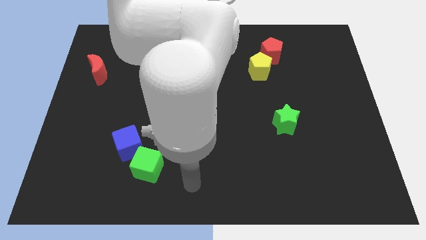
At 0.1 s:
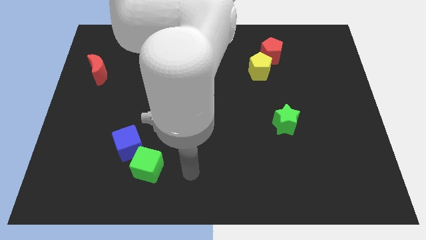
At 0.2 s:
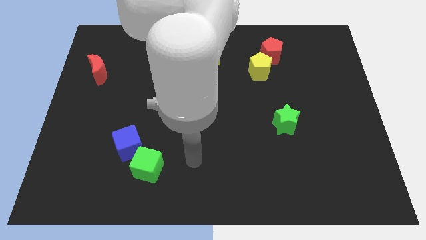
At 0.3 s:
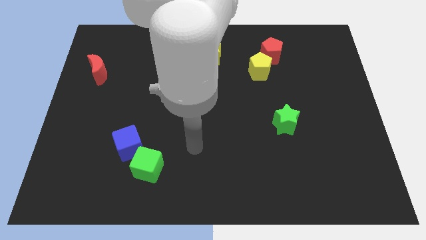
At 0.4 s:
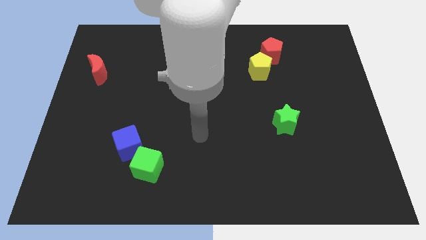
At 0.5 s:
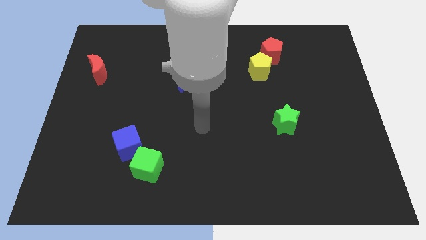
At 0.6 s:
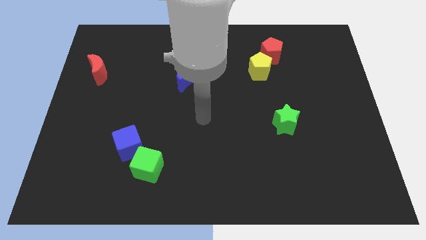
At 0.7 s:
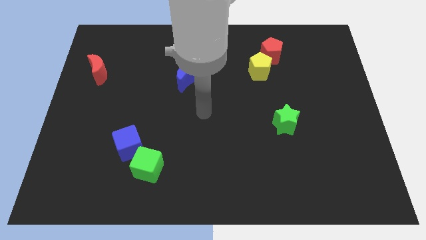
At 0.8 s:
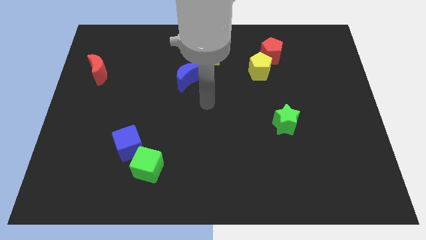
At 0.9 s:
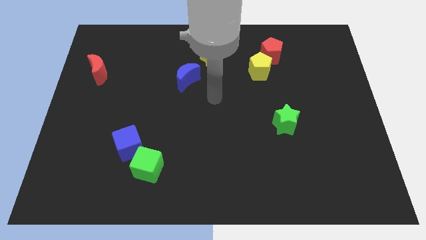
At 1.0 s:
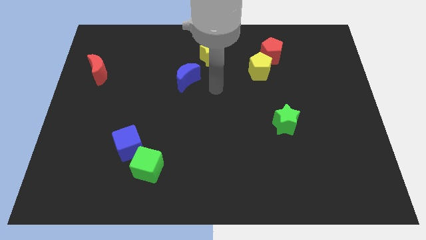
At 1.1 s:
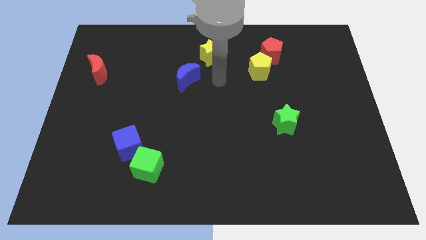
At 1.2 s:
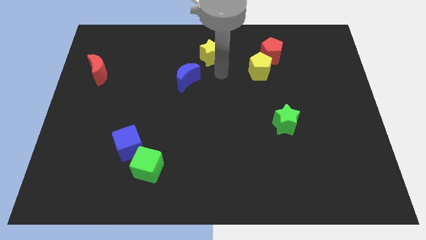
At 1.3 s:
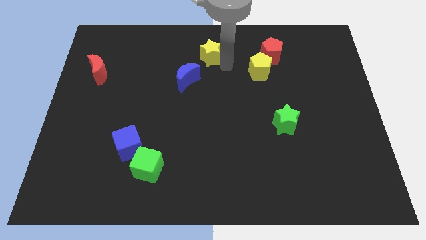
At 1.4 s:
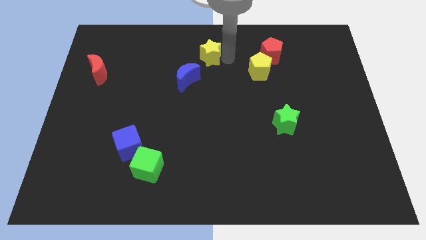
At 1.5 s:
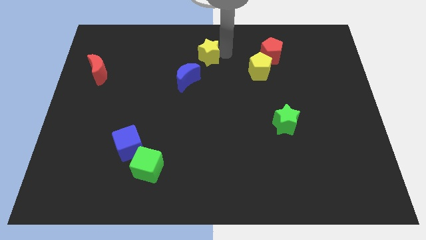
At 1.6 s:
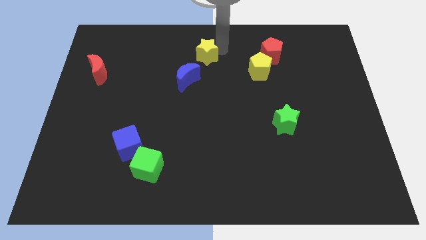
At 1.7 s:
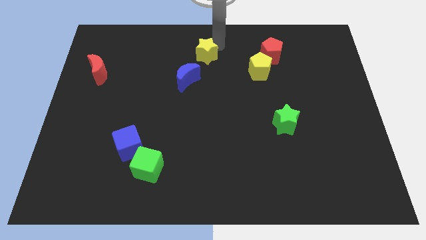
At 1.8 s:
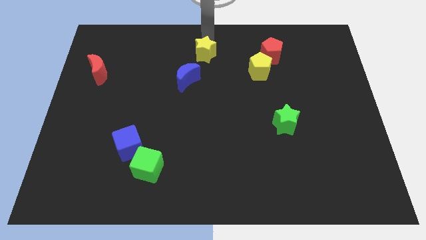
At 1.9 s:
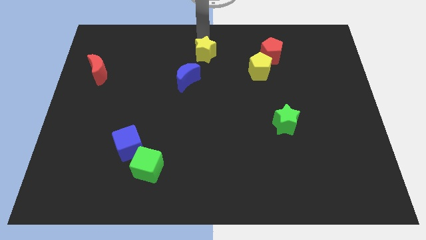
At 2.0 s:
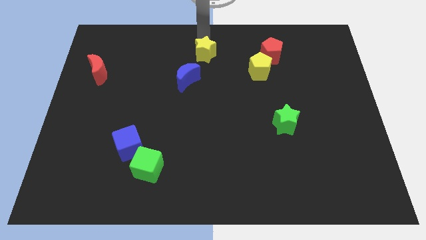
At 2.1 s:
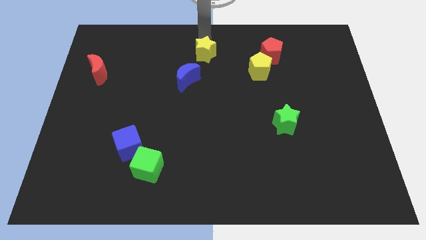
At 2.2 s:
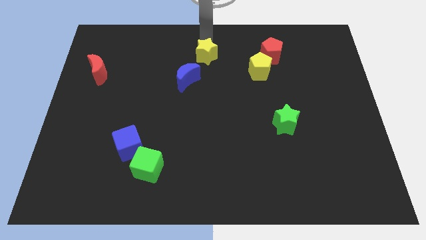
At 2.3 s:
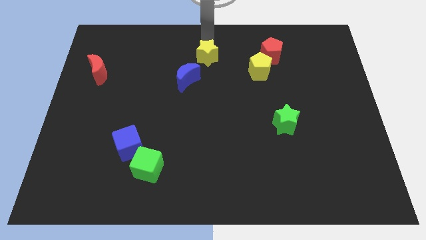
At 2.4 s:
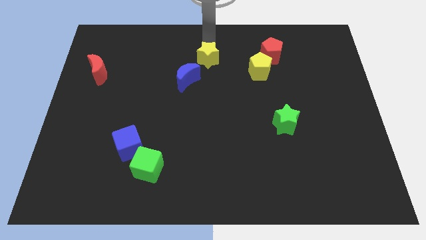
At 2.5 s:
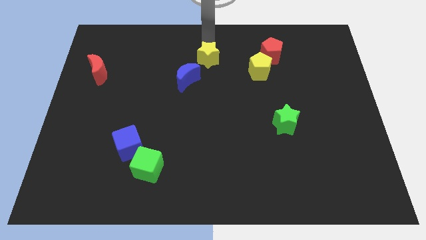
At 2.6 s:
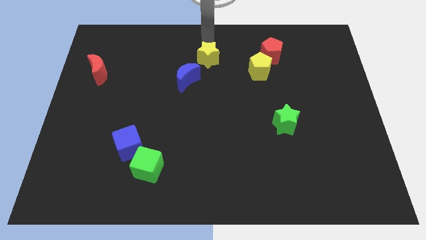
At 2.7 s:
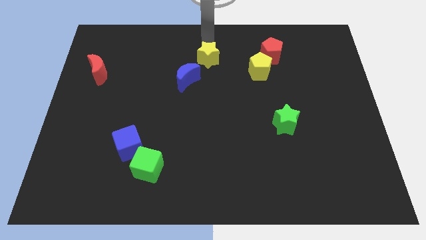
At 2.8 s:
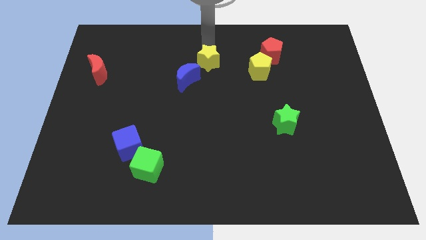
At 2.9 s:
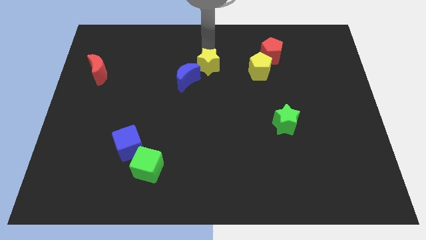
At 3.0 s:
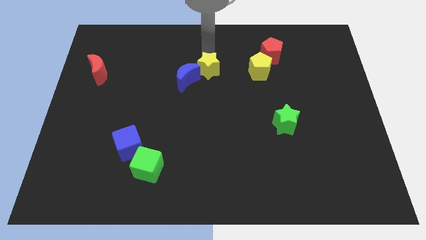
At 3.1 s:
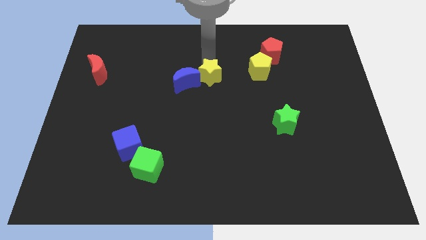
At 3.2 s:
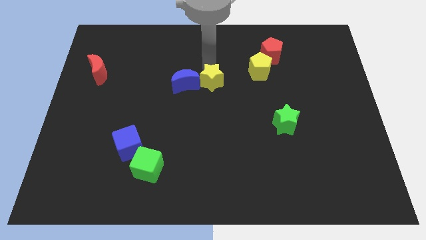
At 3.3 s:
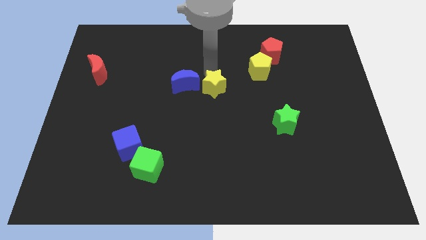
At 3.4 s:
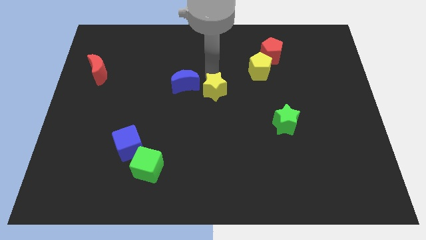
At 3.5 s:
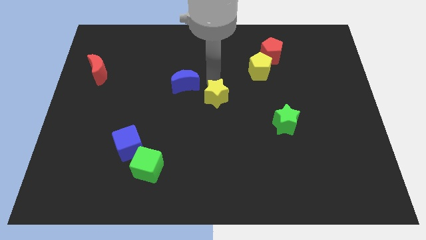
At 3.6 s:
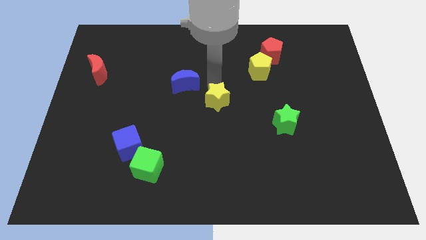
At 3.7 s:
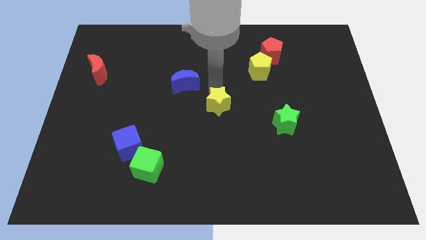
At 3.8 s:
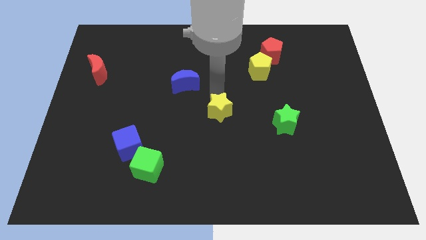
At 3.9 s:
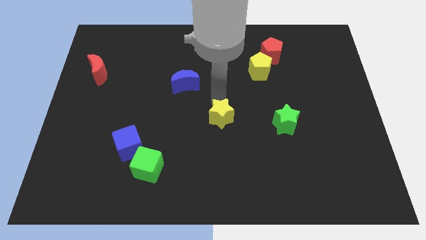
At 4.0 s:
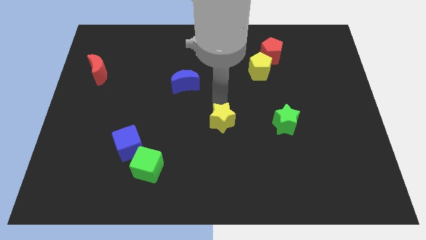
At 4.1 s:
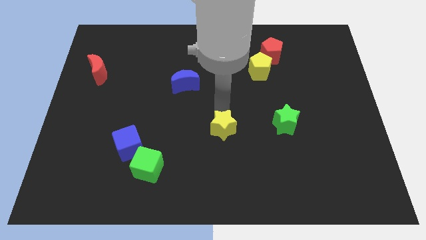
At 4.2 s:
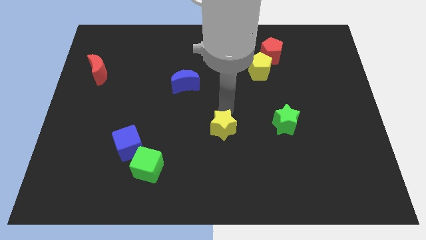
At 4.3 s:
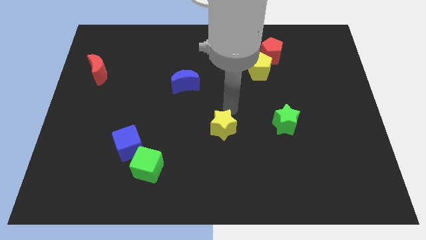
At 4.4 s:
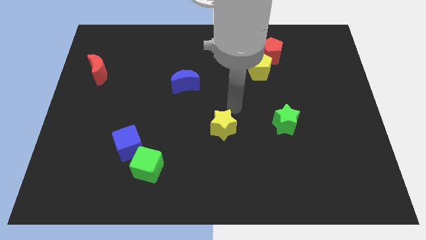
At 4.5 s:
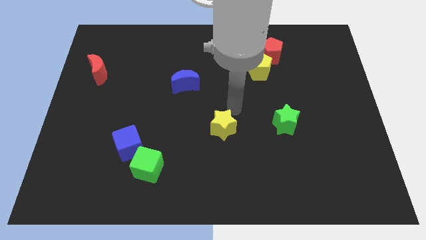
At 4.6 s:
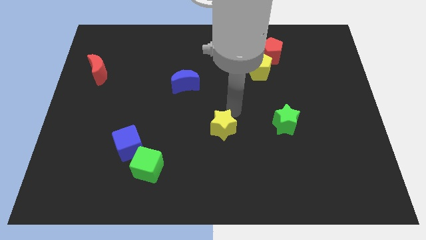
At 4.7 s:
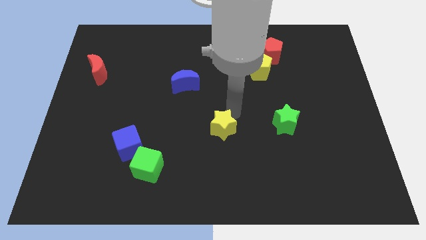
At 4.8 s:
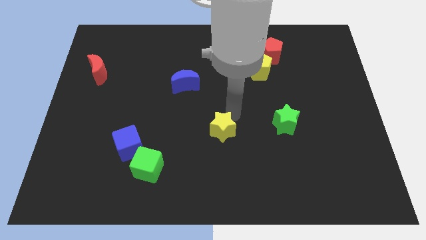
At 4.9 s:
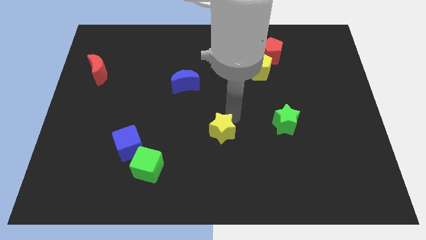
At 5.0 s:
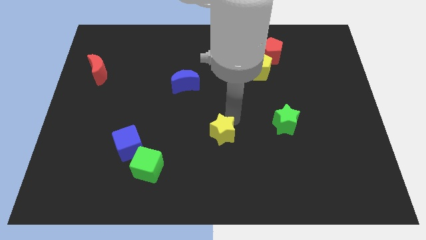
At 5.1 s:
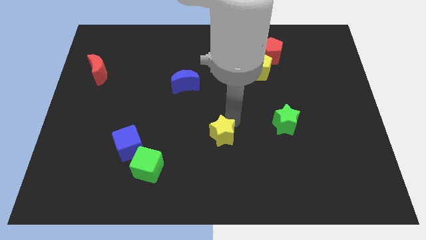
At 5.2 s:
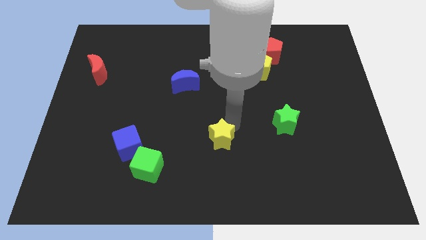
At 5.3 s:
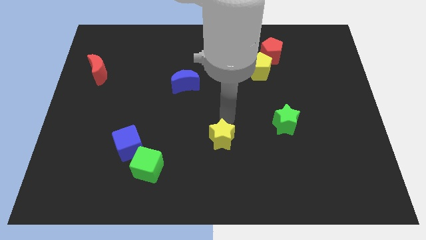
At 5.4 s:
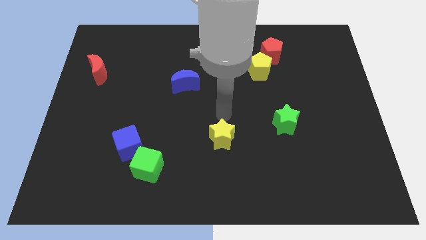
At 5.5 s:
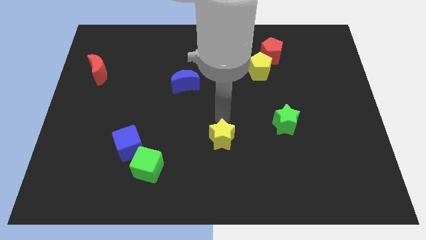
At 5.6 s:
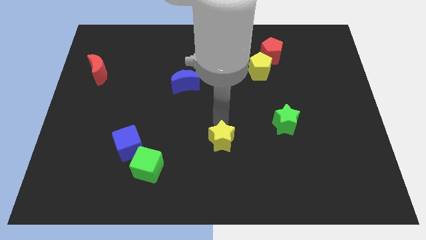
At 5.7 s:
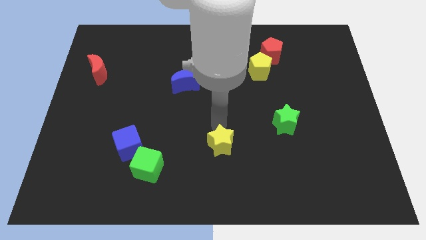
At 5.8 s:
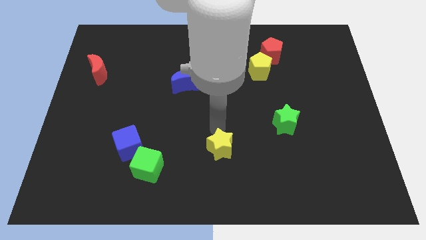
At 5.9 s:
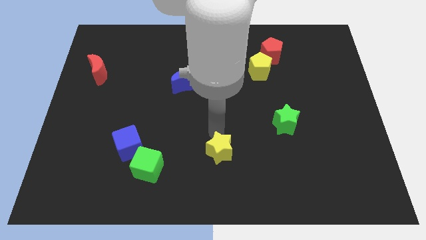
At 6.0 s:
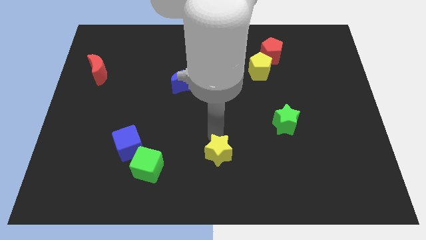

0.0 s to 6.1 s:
put the yellow star to the bottom side

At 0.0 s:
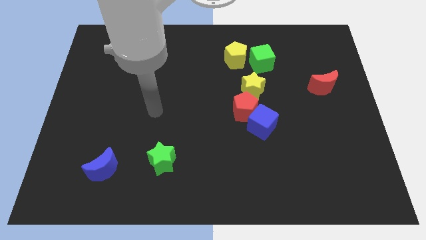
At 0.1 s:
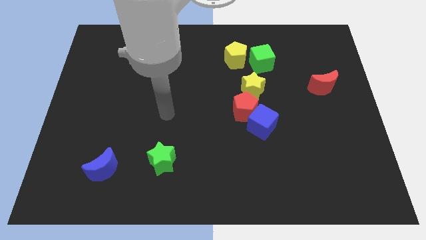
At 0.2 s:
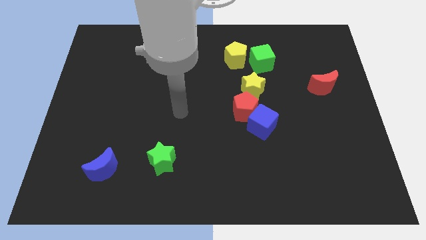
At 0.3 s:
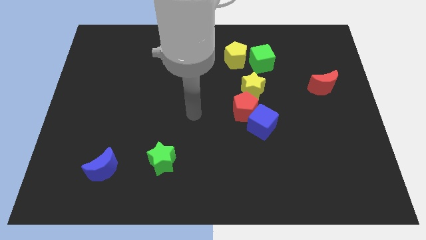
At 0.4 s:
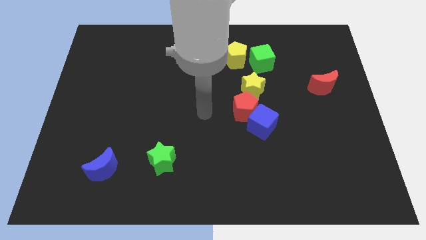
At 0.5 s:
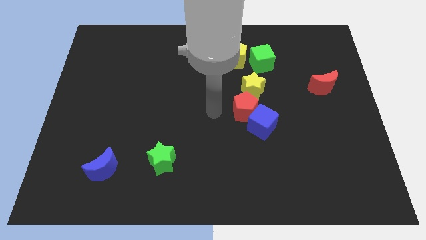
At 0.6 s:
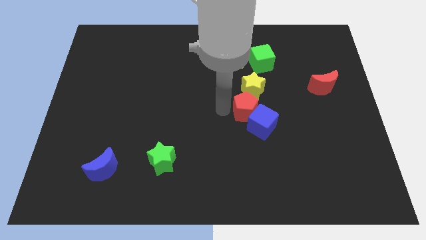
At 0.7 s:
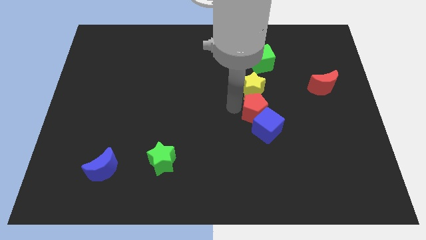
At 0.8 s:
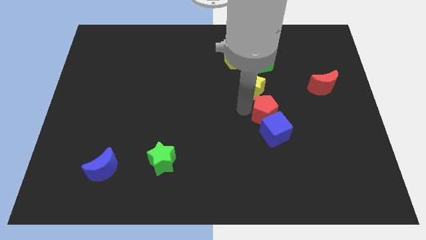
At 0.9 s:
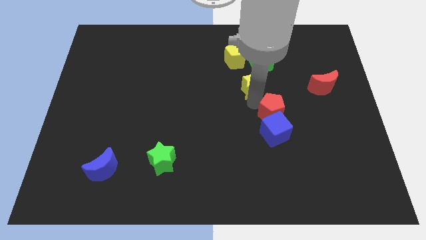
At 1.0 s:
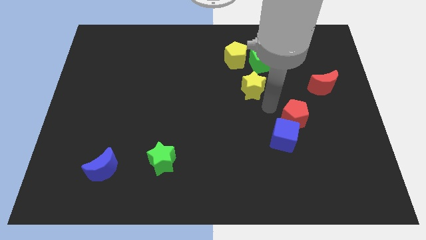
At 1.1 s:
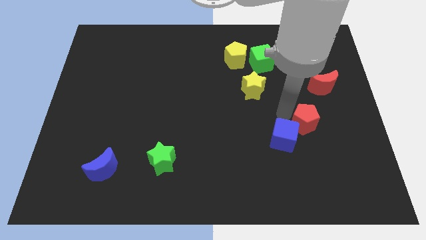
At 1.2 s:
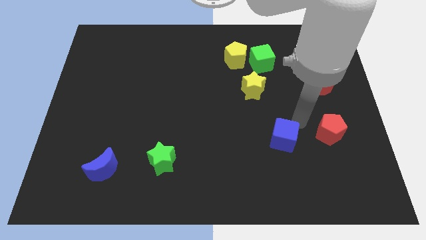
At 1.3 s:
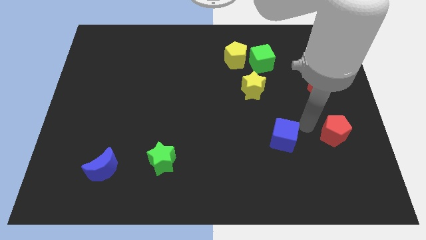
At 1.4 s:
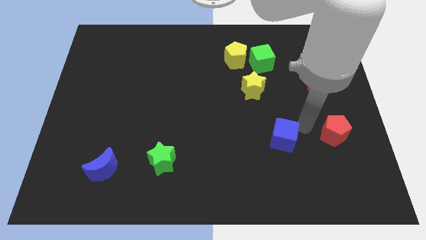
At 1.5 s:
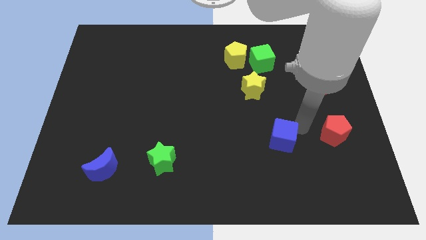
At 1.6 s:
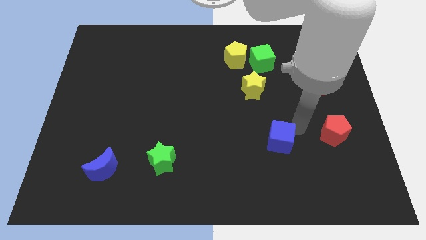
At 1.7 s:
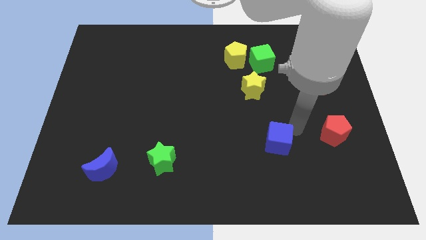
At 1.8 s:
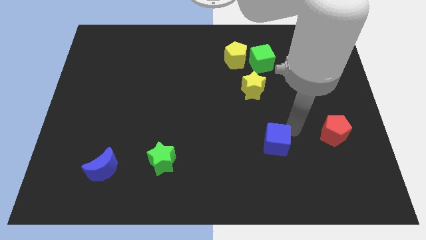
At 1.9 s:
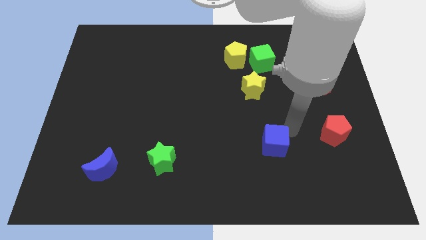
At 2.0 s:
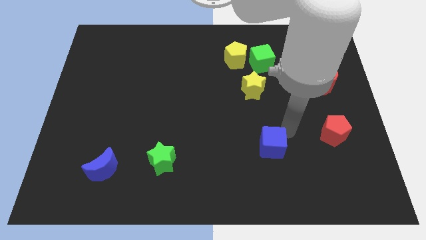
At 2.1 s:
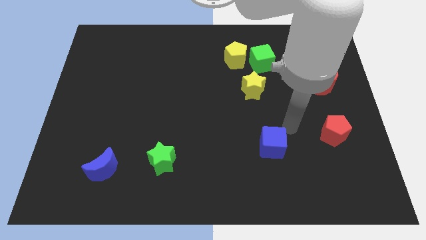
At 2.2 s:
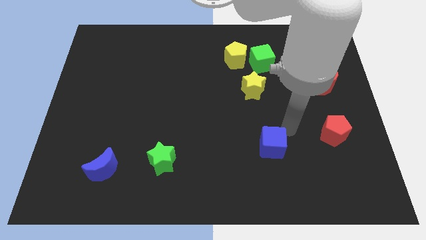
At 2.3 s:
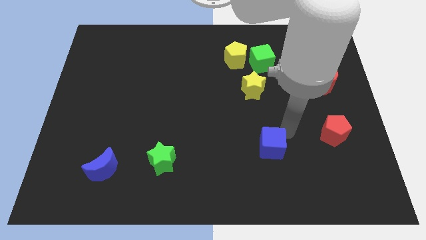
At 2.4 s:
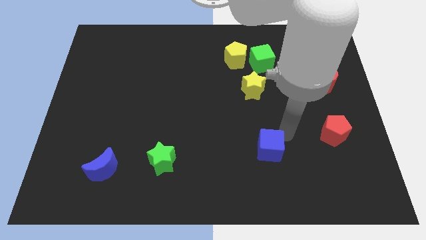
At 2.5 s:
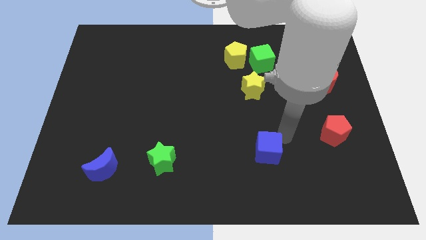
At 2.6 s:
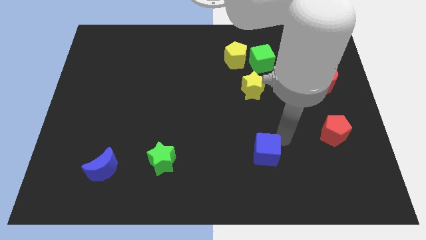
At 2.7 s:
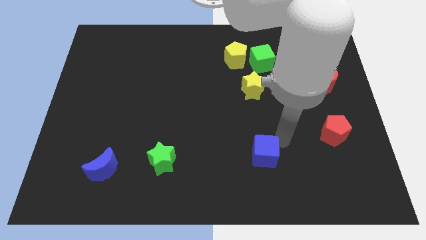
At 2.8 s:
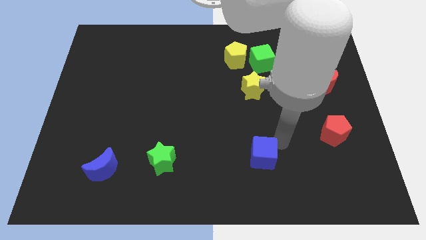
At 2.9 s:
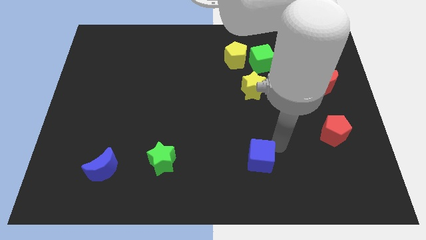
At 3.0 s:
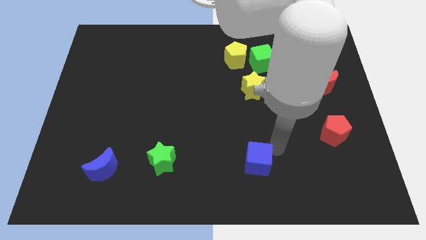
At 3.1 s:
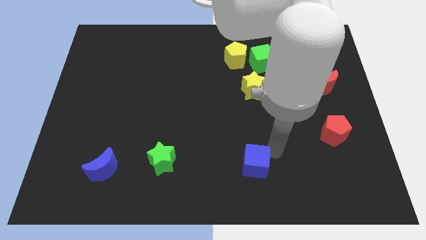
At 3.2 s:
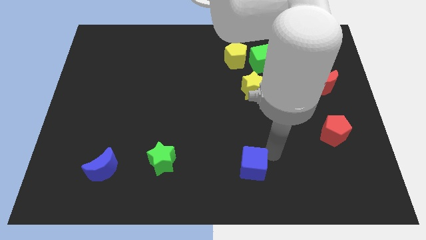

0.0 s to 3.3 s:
move the blue cube to the bottom side
